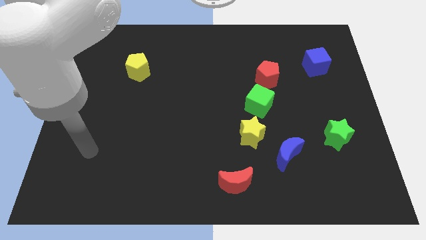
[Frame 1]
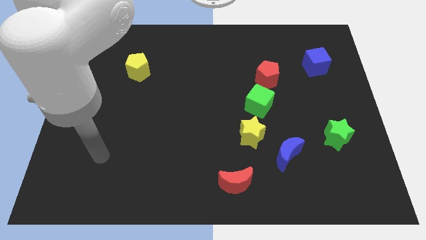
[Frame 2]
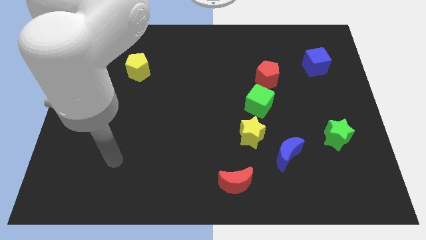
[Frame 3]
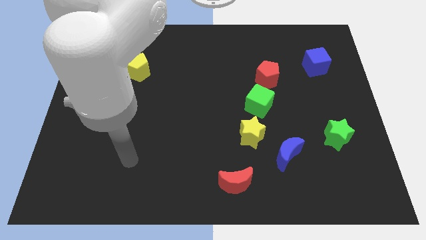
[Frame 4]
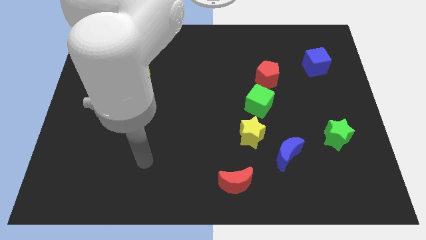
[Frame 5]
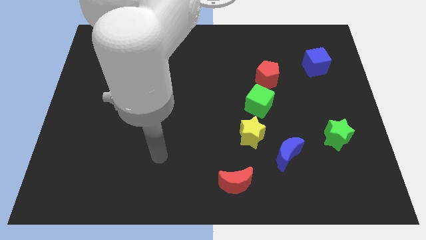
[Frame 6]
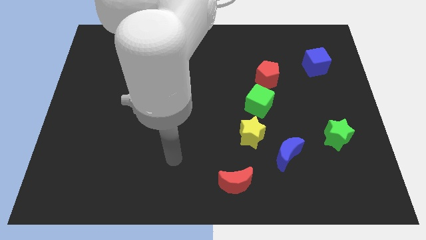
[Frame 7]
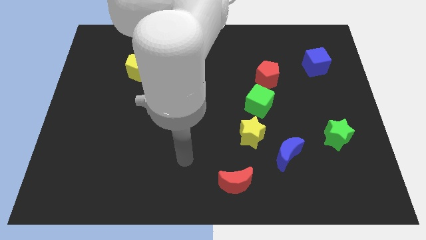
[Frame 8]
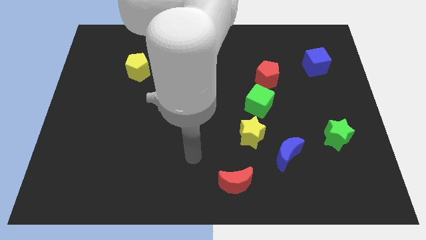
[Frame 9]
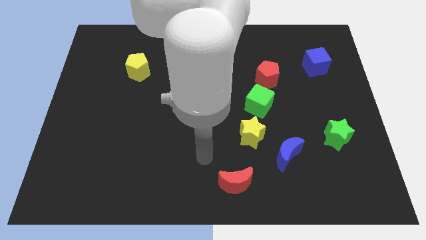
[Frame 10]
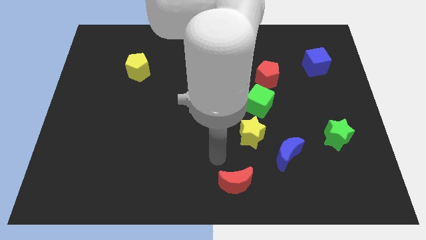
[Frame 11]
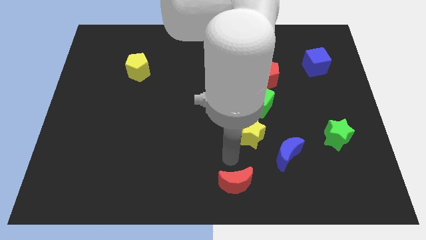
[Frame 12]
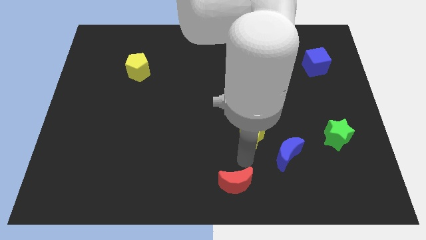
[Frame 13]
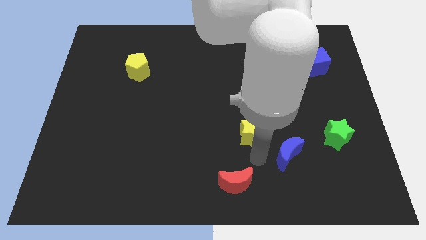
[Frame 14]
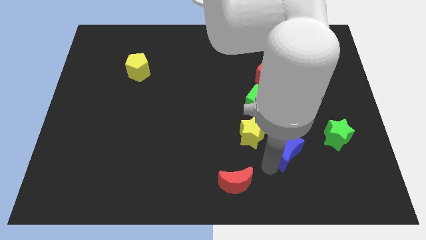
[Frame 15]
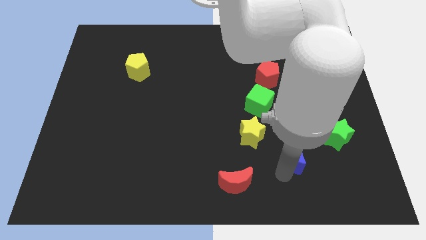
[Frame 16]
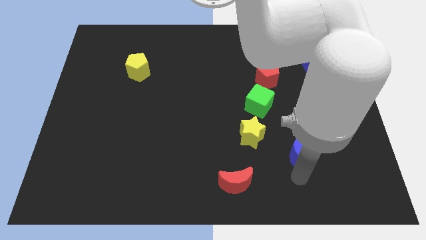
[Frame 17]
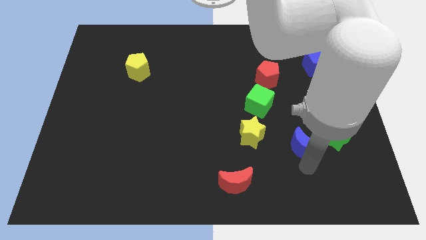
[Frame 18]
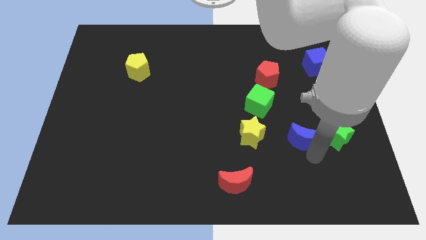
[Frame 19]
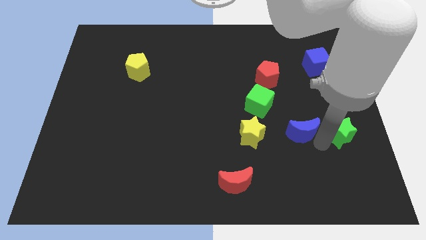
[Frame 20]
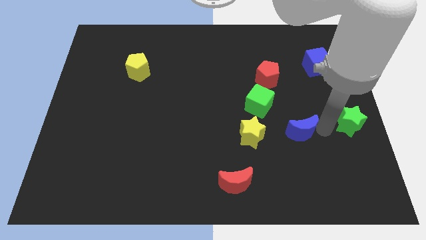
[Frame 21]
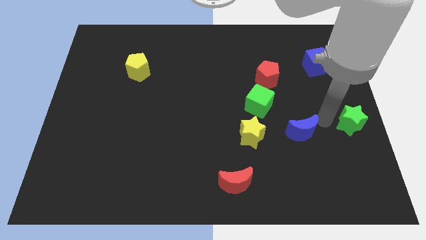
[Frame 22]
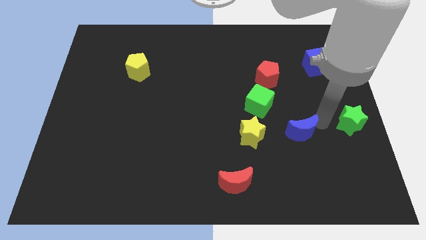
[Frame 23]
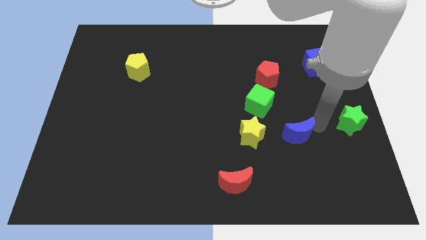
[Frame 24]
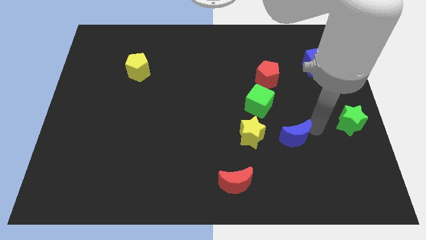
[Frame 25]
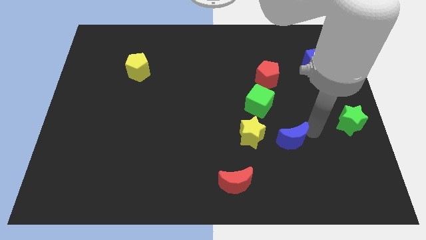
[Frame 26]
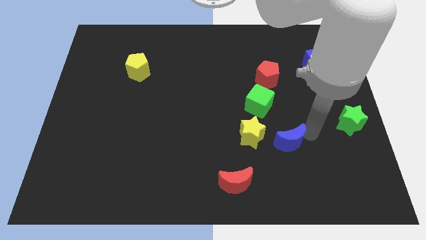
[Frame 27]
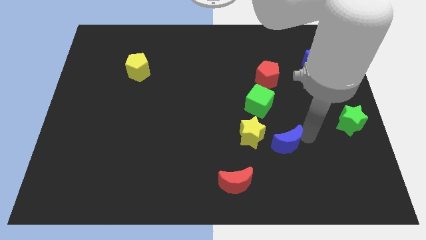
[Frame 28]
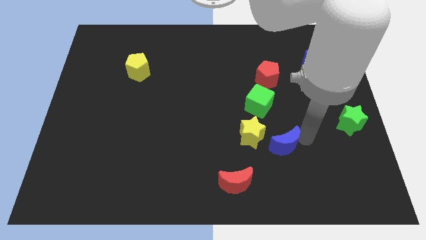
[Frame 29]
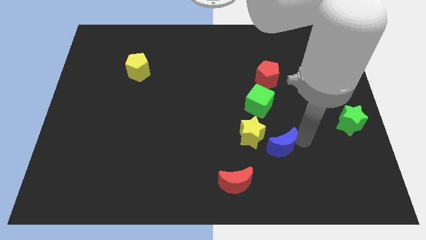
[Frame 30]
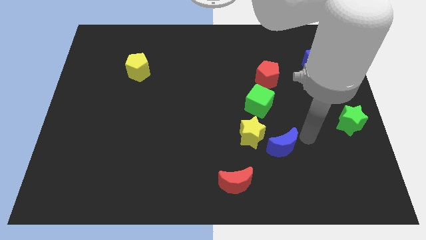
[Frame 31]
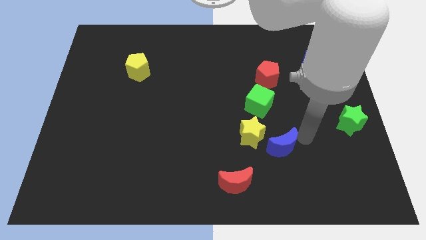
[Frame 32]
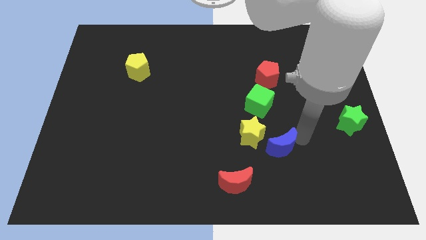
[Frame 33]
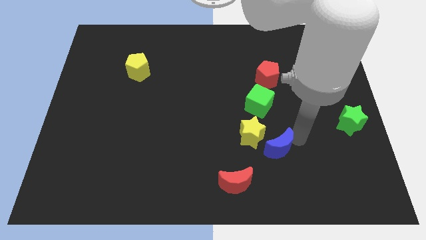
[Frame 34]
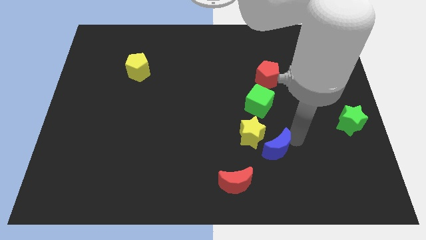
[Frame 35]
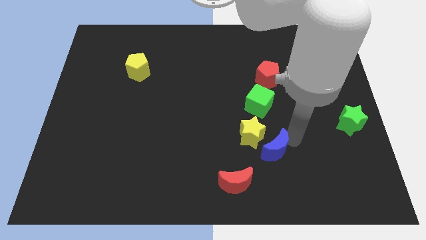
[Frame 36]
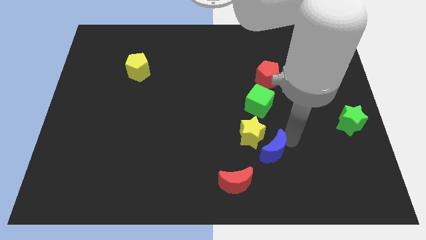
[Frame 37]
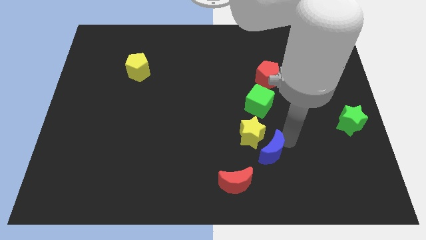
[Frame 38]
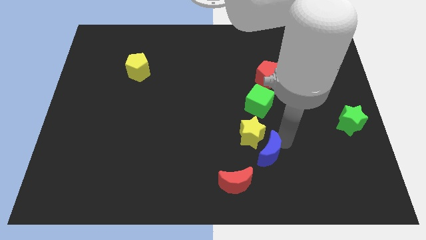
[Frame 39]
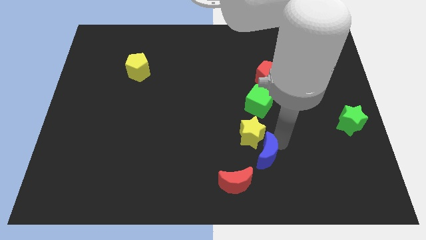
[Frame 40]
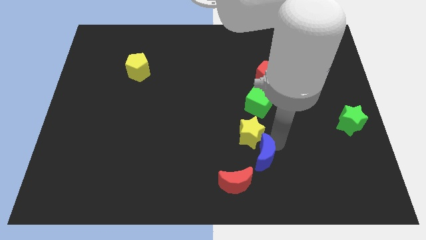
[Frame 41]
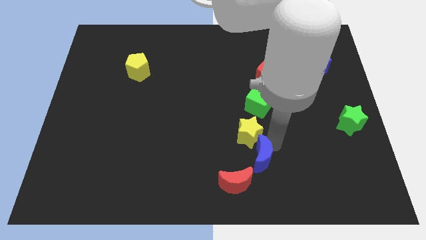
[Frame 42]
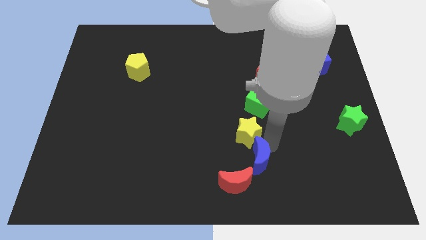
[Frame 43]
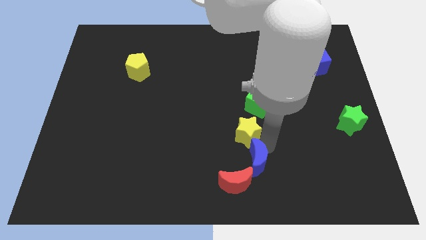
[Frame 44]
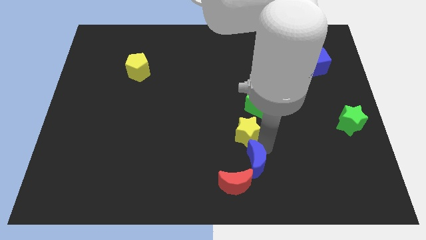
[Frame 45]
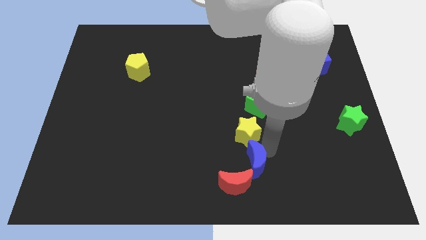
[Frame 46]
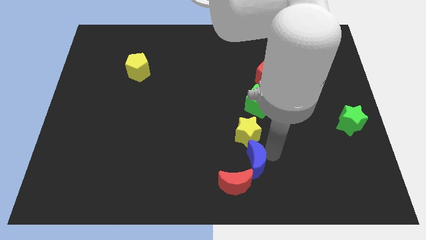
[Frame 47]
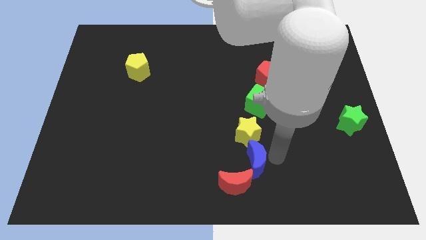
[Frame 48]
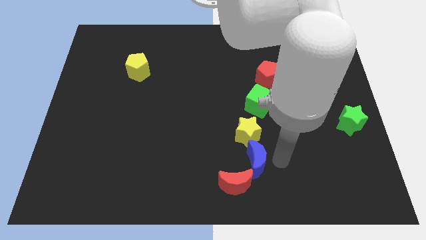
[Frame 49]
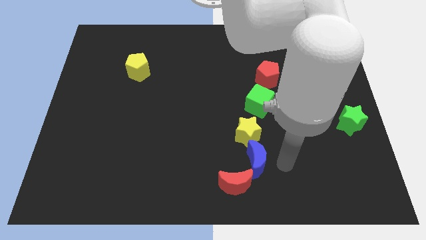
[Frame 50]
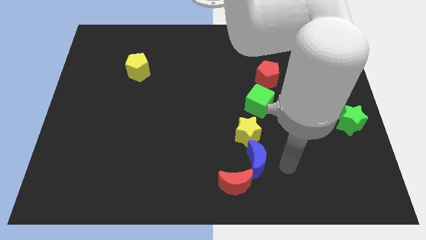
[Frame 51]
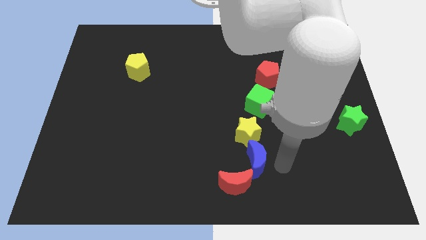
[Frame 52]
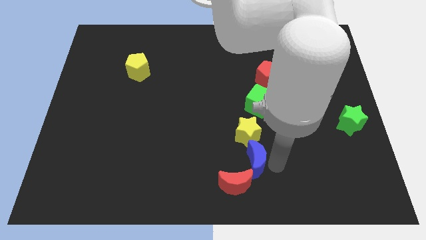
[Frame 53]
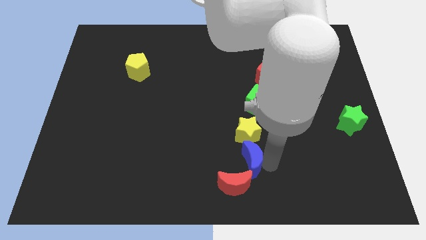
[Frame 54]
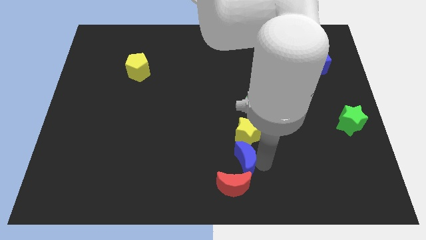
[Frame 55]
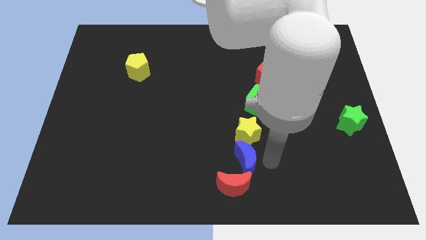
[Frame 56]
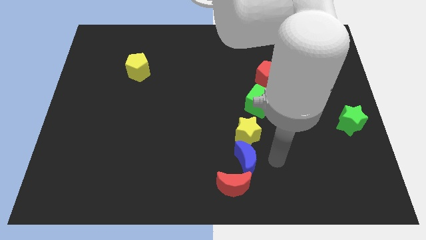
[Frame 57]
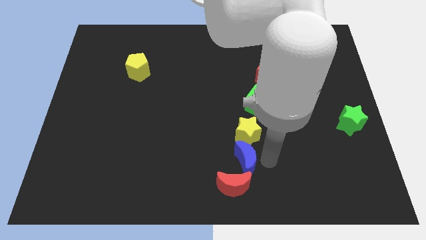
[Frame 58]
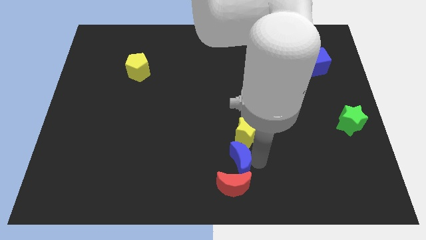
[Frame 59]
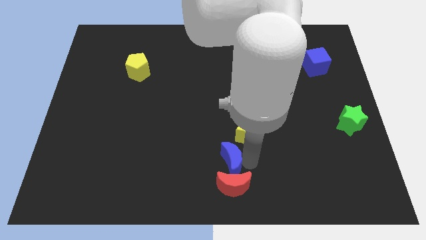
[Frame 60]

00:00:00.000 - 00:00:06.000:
move the blue moon to the top left of the red moon

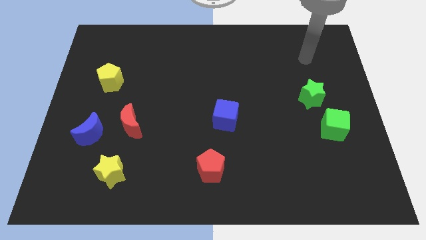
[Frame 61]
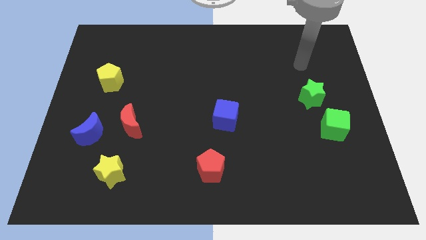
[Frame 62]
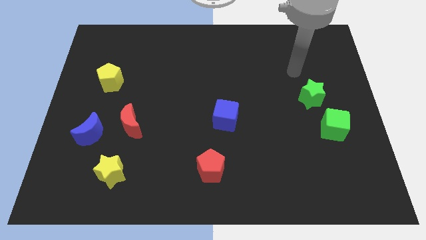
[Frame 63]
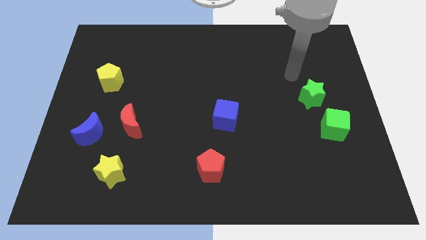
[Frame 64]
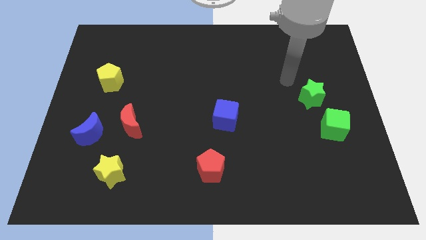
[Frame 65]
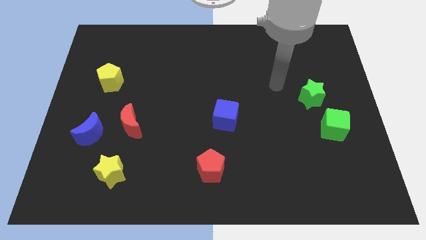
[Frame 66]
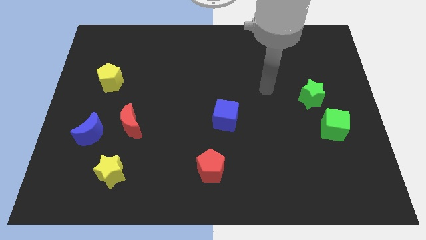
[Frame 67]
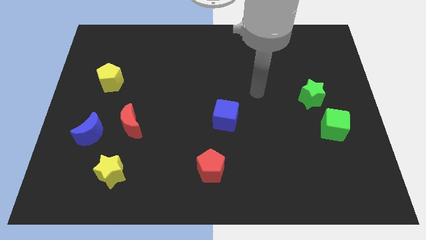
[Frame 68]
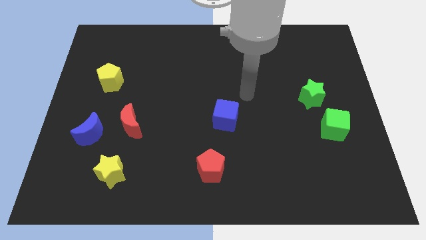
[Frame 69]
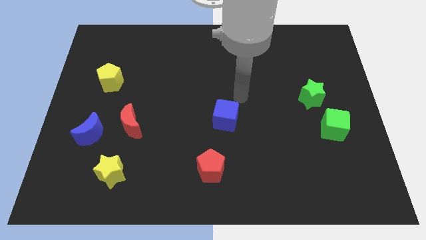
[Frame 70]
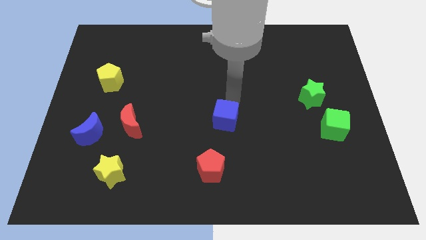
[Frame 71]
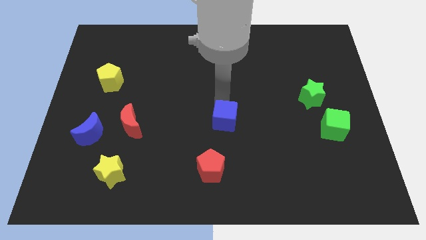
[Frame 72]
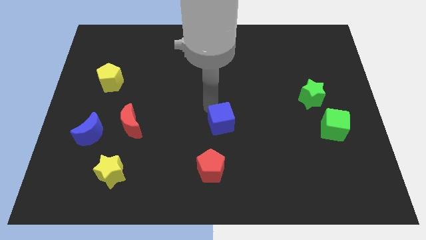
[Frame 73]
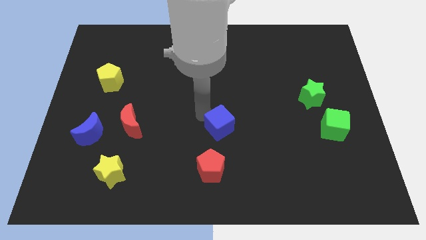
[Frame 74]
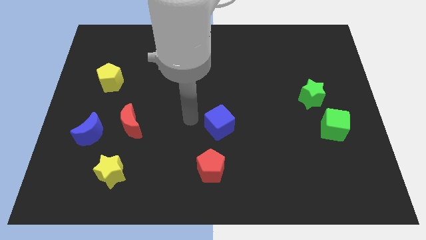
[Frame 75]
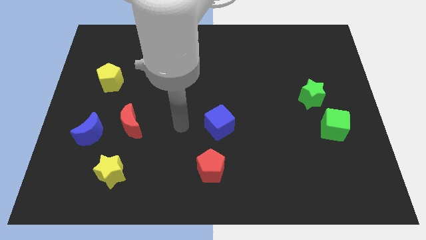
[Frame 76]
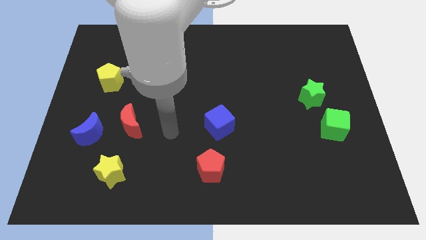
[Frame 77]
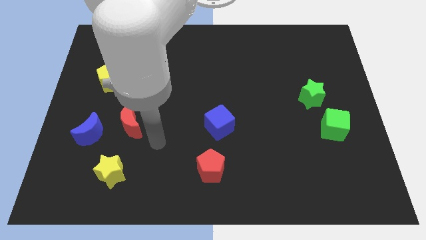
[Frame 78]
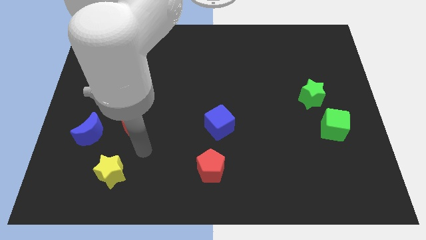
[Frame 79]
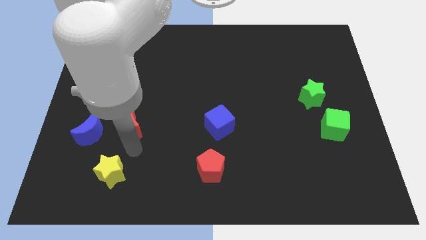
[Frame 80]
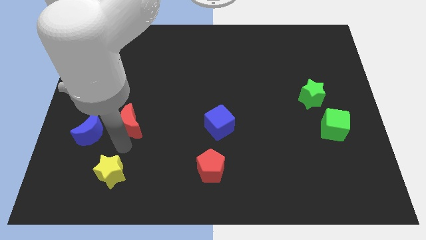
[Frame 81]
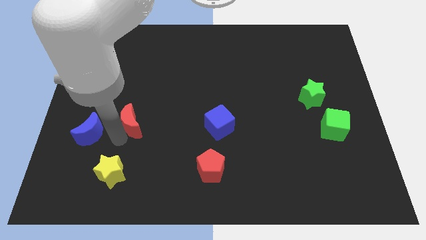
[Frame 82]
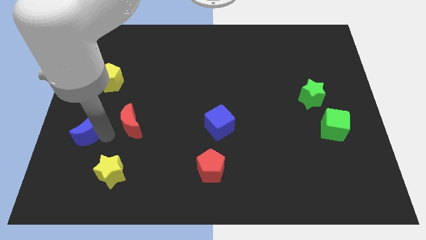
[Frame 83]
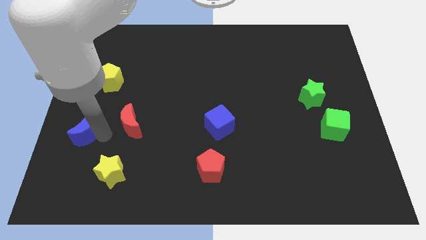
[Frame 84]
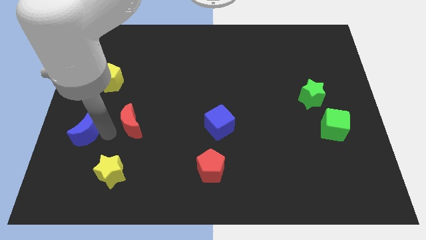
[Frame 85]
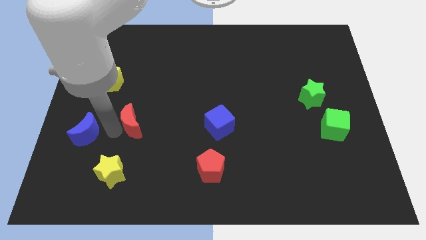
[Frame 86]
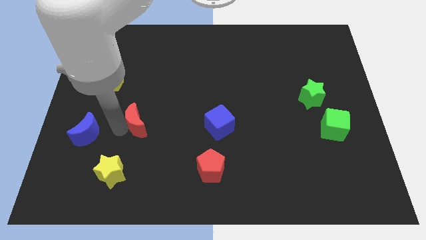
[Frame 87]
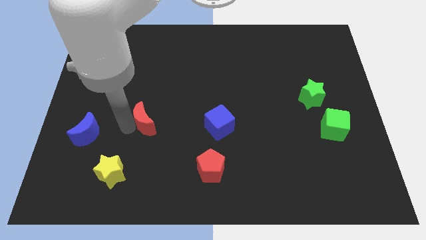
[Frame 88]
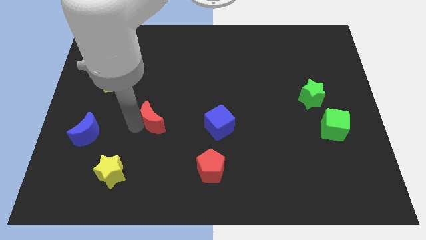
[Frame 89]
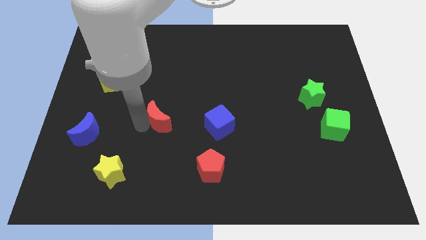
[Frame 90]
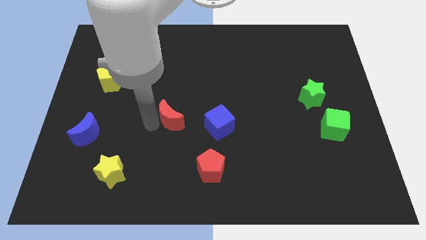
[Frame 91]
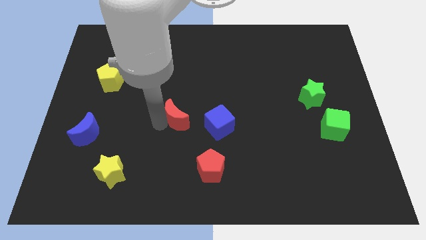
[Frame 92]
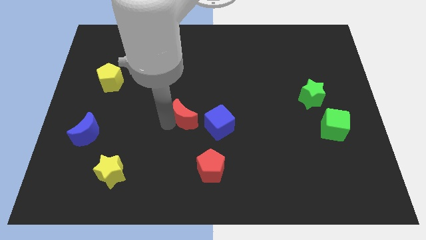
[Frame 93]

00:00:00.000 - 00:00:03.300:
move the red moon to the top left of the blue cube
